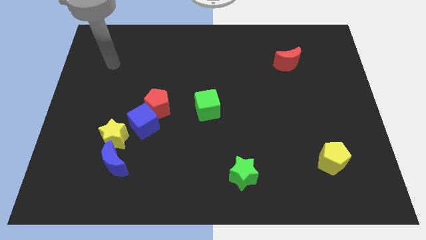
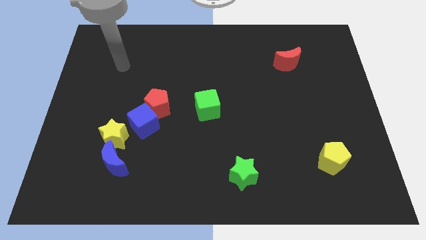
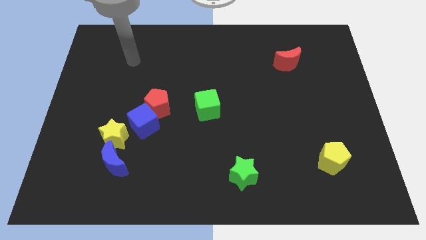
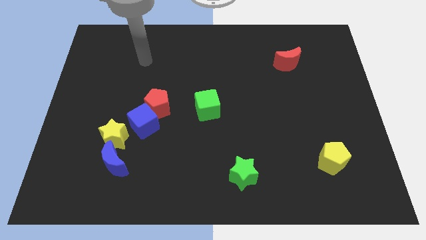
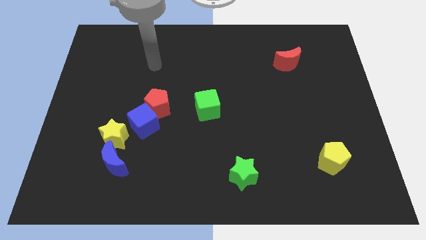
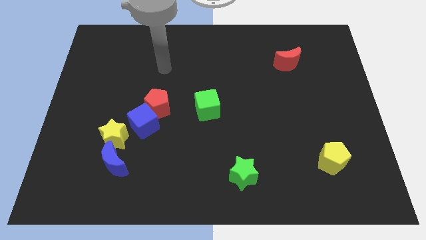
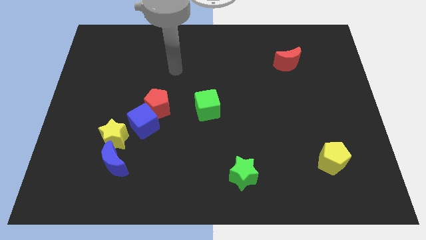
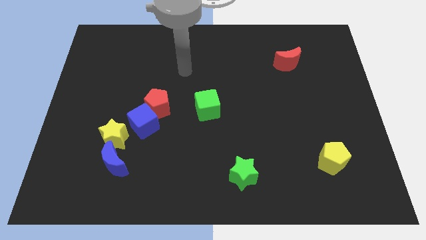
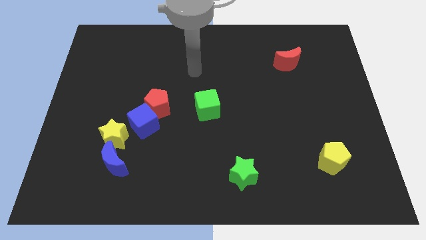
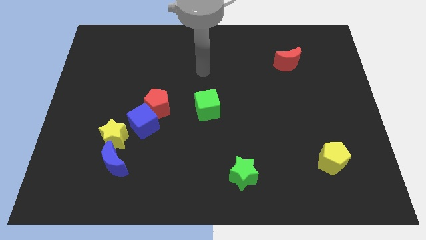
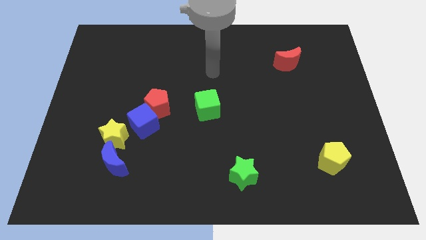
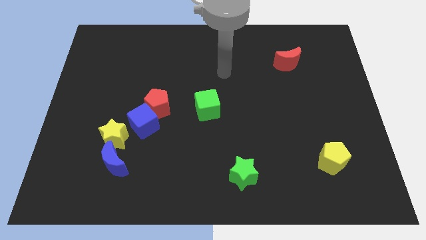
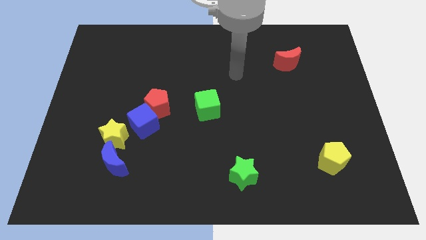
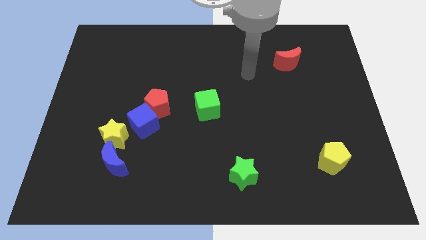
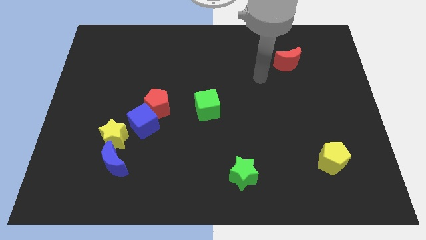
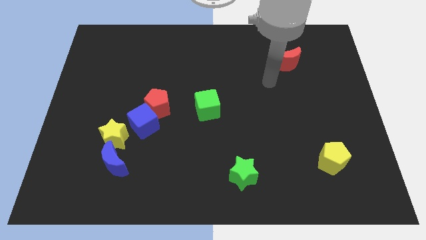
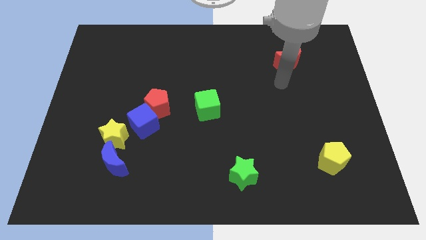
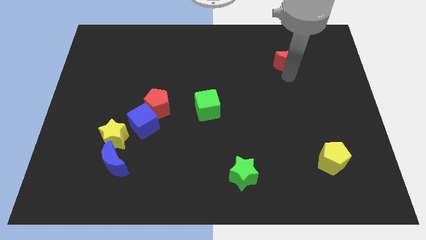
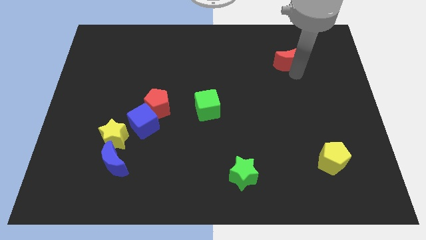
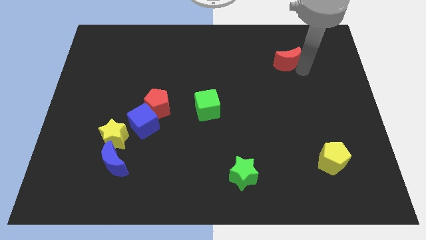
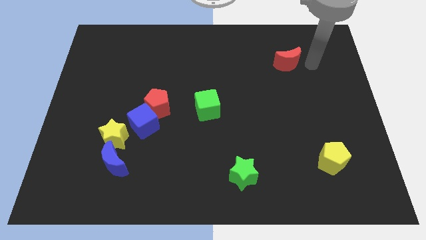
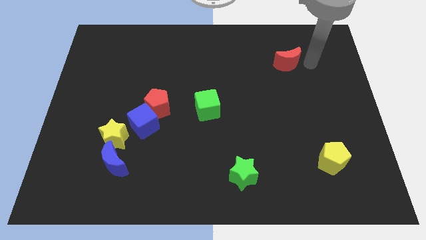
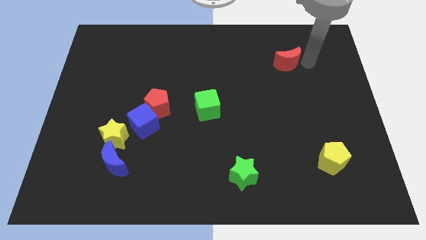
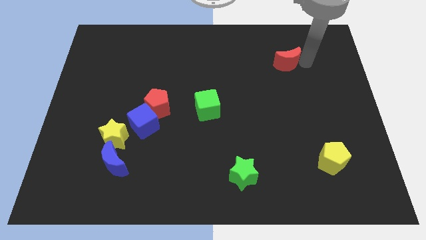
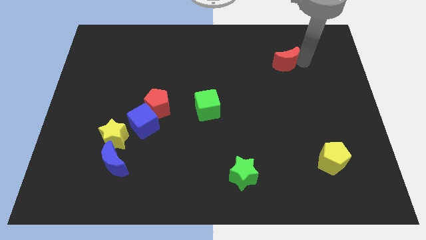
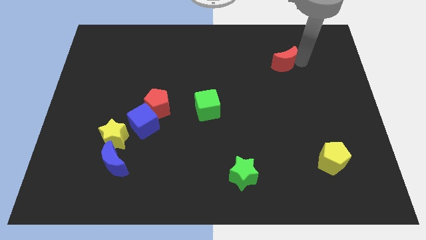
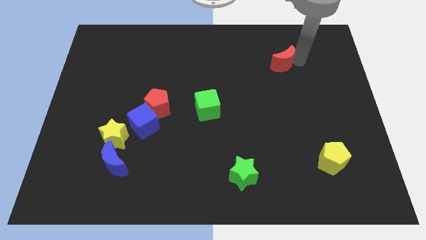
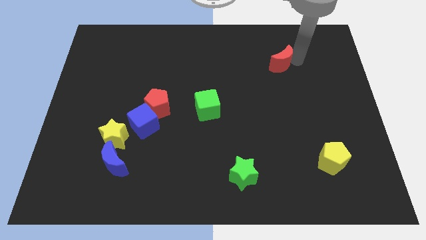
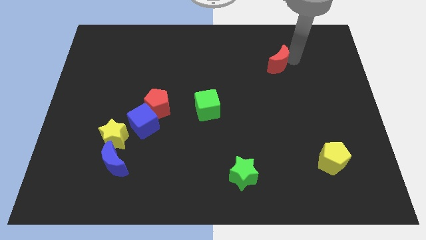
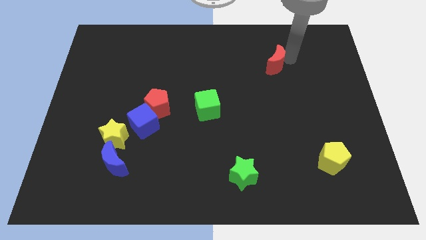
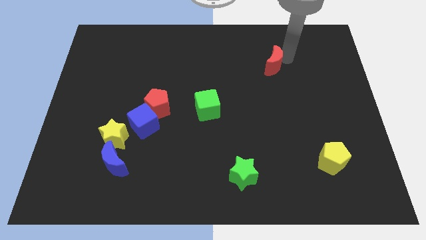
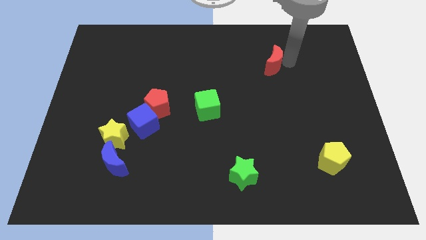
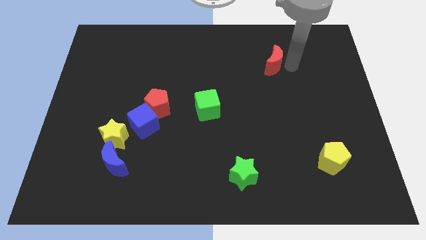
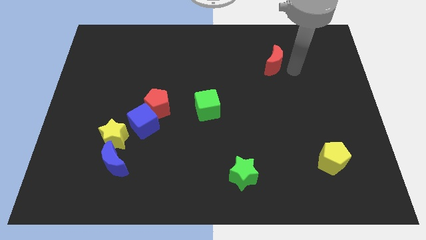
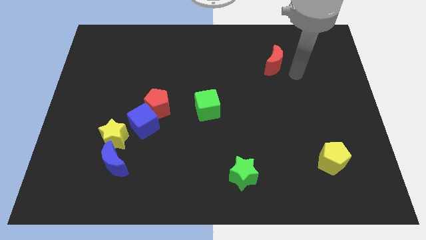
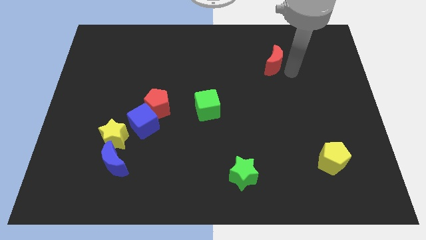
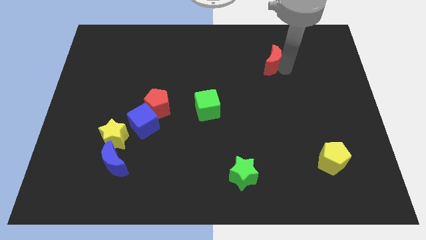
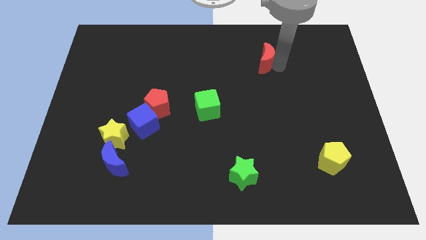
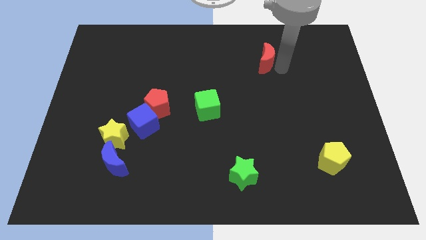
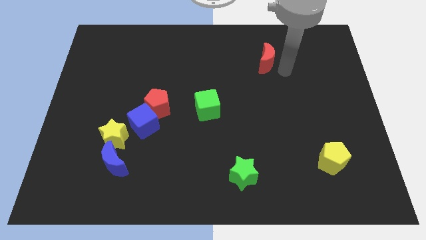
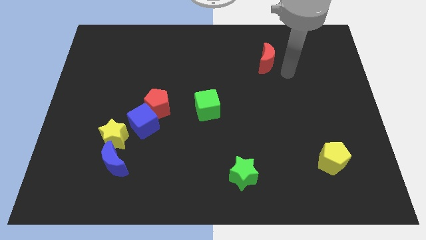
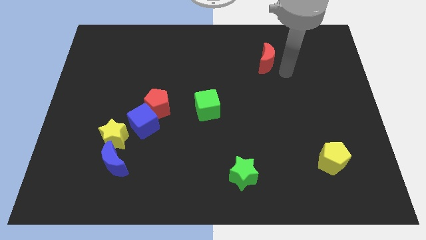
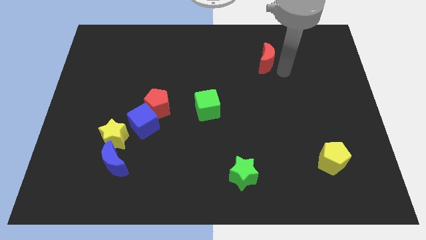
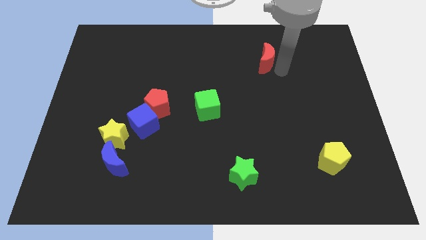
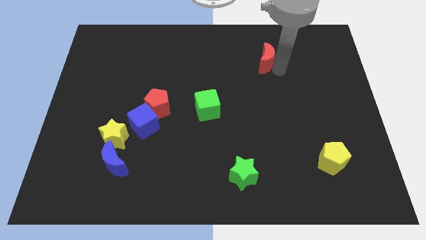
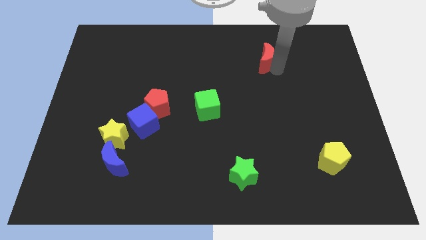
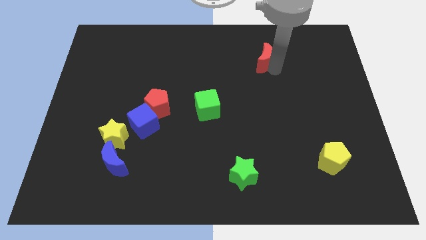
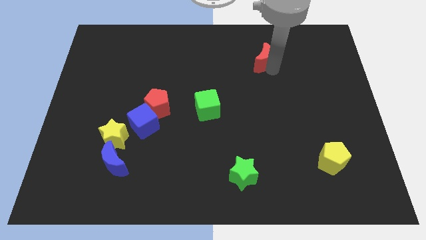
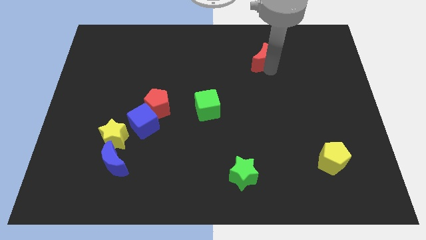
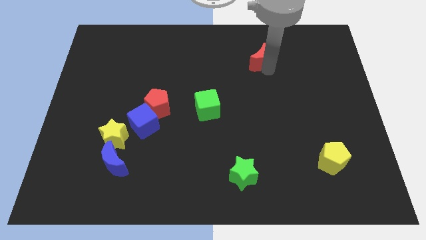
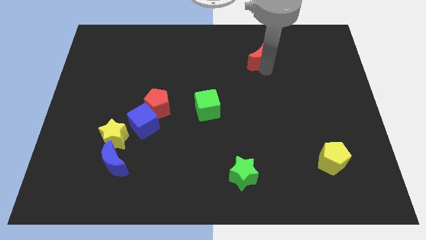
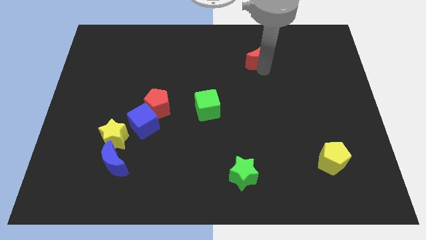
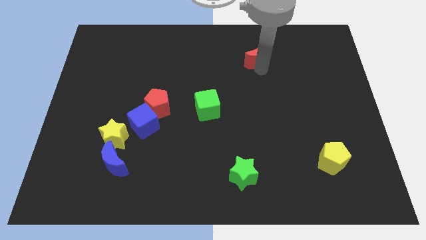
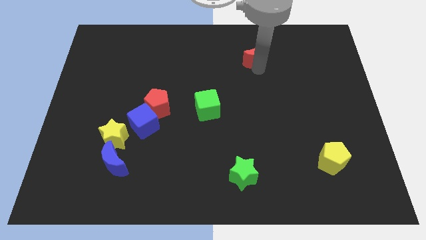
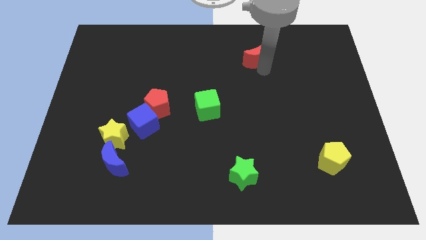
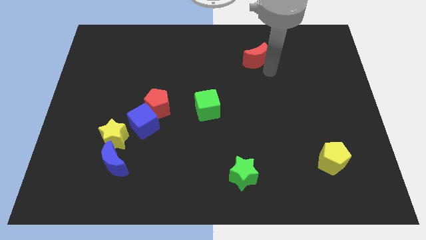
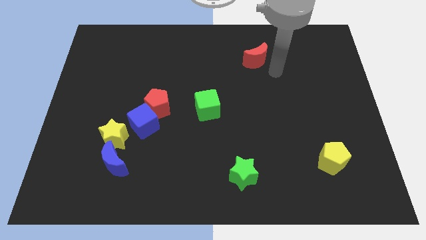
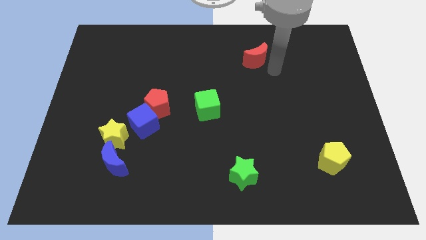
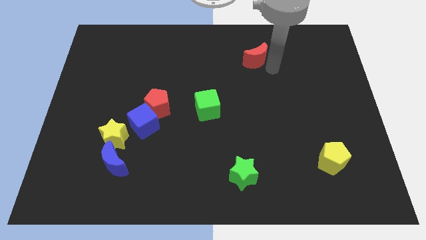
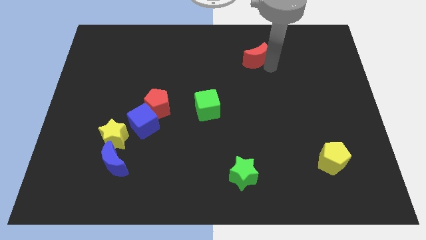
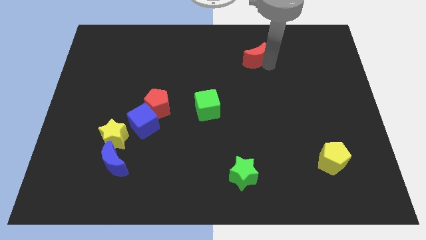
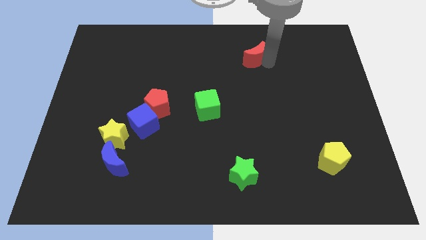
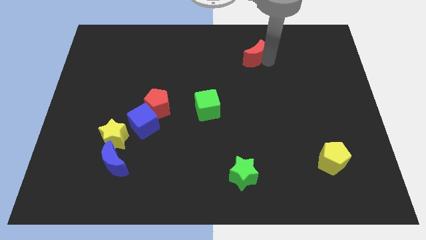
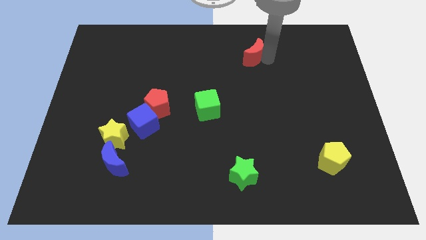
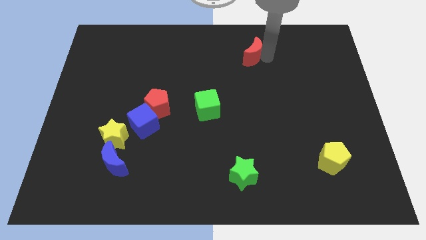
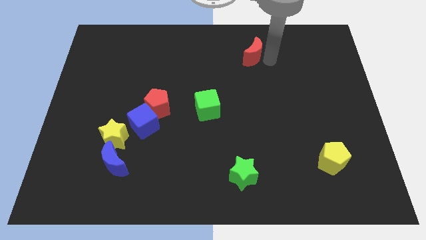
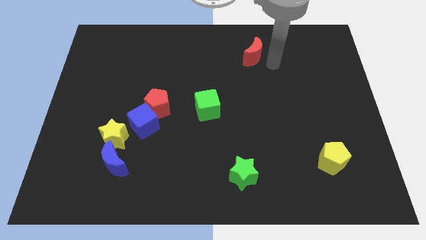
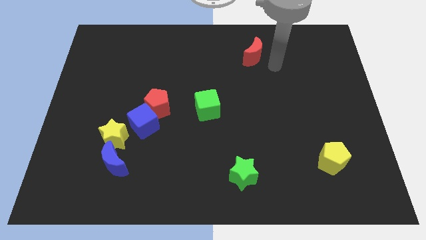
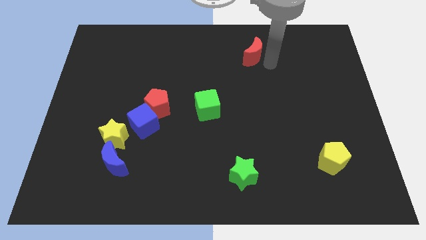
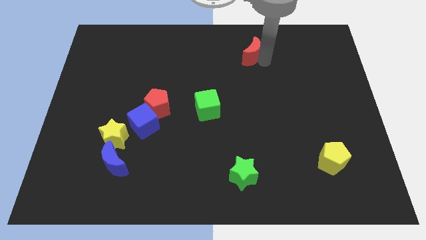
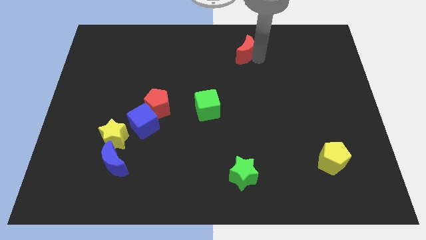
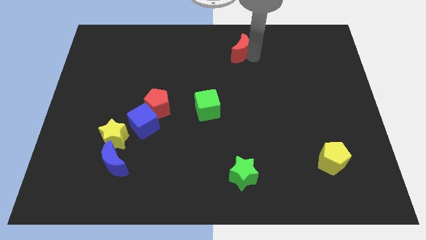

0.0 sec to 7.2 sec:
move the red moon to the top
